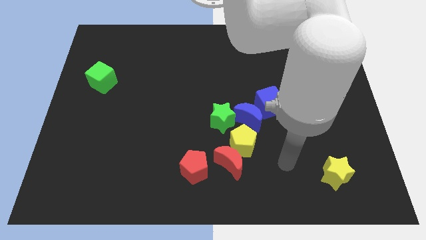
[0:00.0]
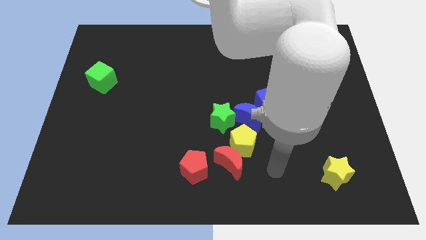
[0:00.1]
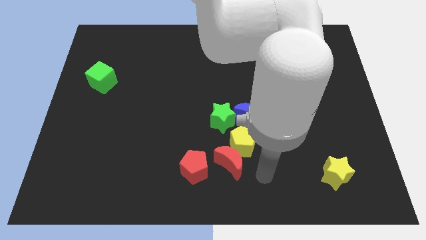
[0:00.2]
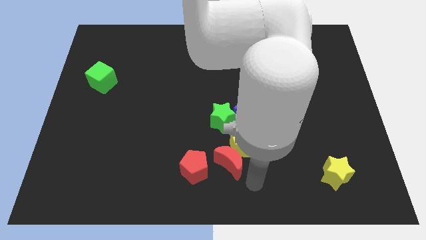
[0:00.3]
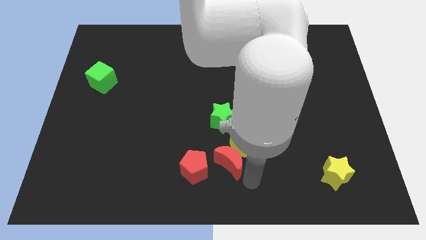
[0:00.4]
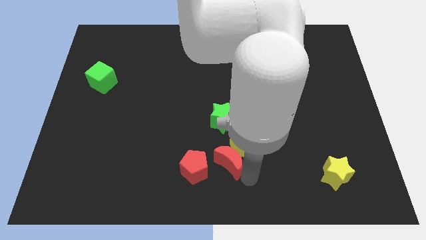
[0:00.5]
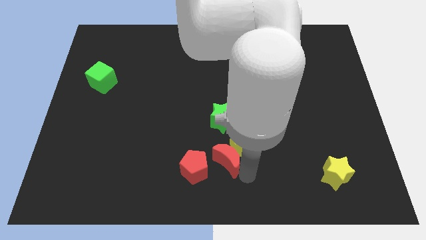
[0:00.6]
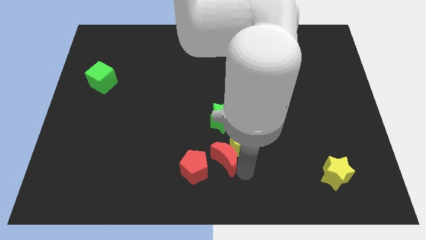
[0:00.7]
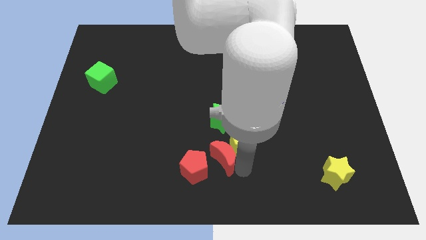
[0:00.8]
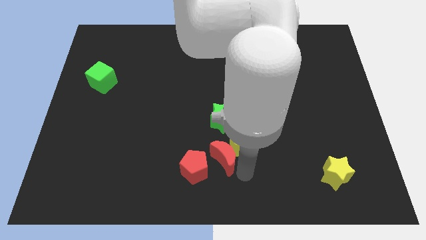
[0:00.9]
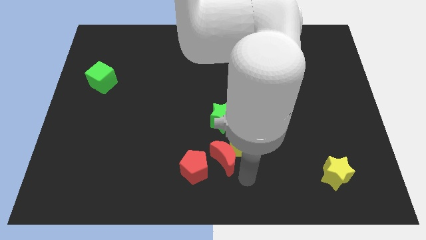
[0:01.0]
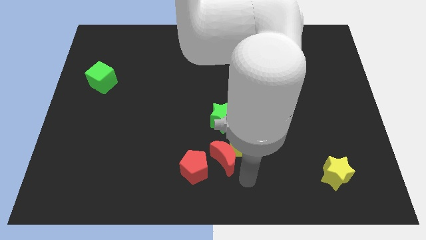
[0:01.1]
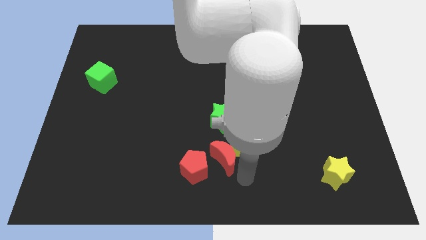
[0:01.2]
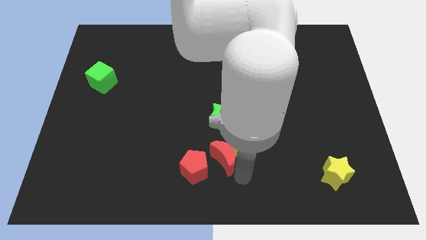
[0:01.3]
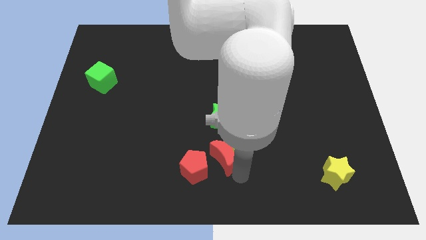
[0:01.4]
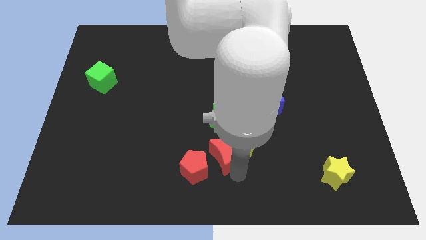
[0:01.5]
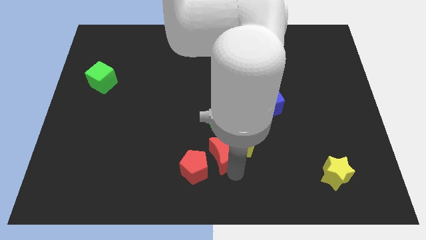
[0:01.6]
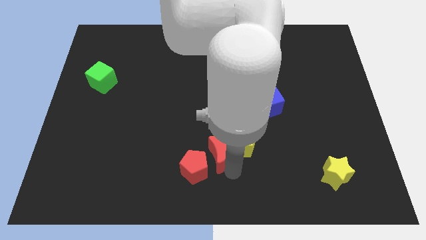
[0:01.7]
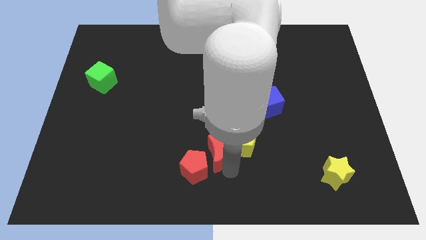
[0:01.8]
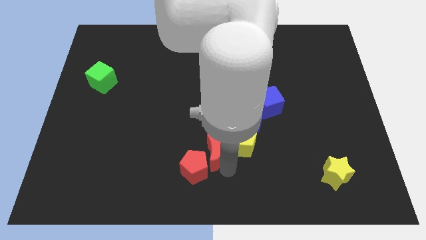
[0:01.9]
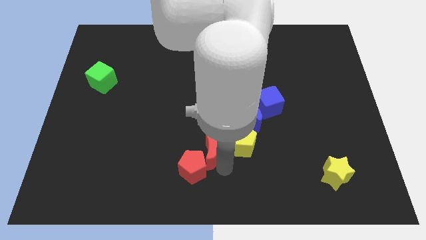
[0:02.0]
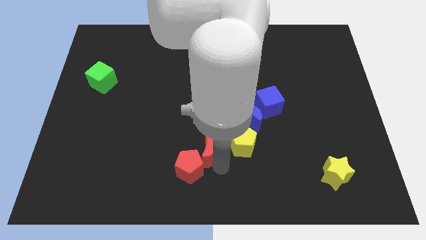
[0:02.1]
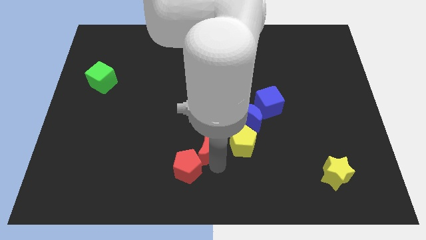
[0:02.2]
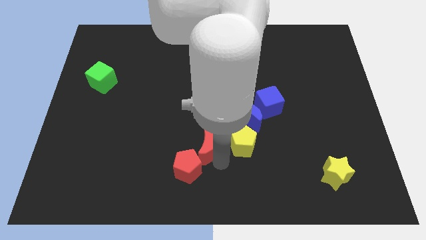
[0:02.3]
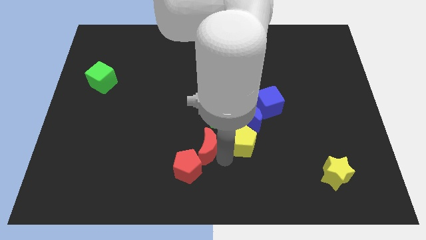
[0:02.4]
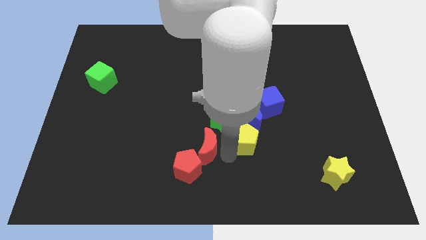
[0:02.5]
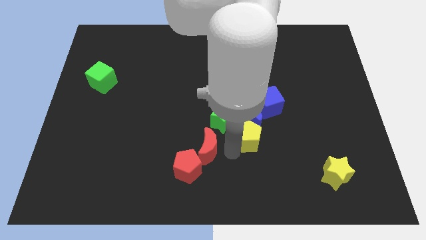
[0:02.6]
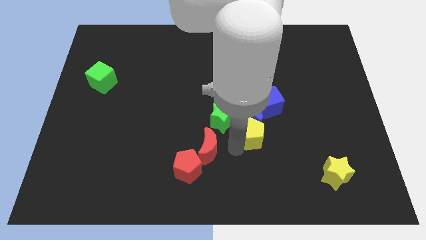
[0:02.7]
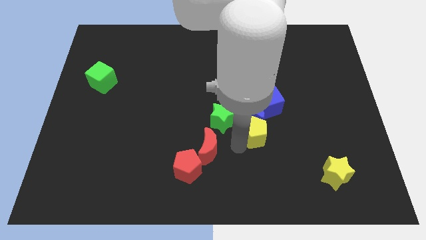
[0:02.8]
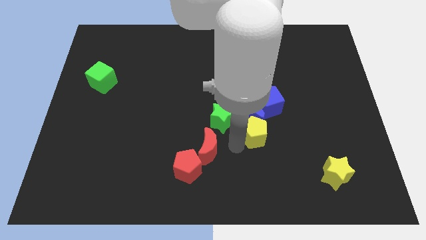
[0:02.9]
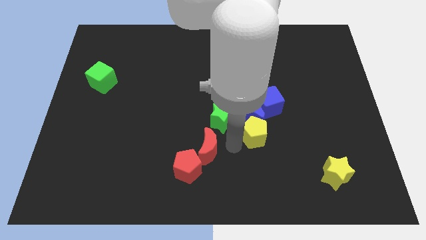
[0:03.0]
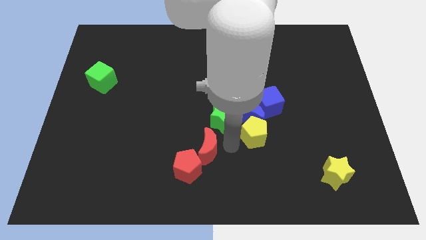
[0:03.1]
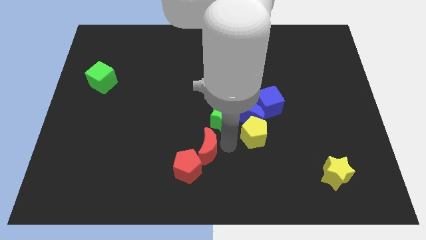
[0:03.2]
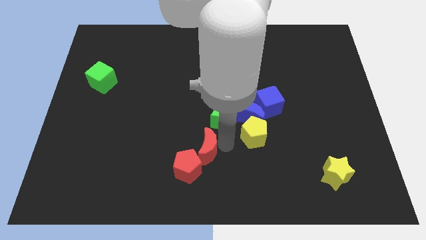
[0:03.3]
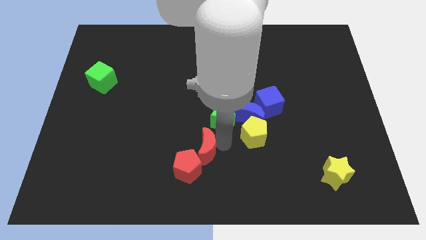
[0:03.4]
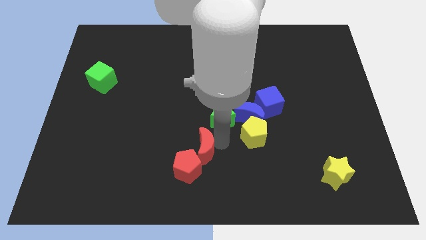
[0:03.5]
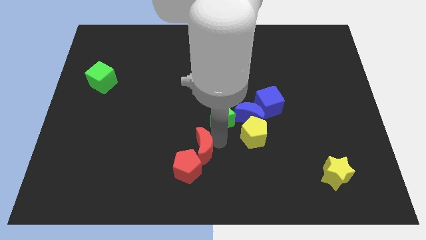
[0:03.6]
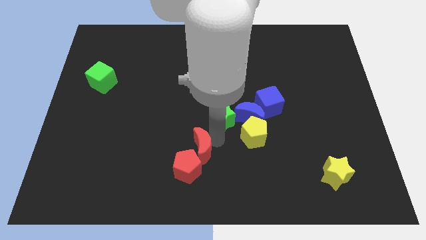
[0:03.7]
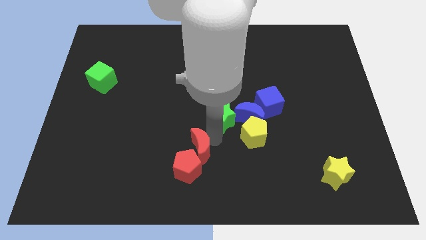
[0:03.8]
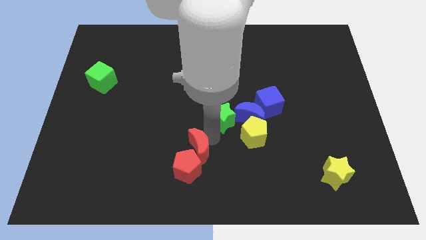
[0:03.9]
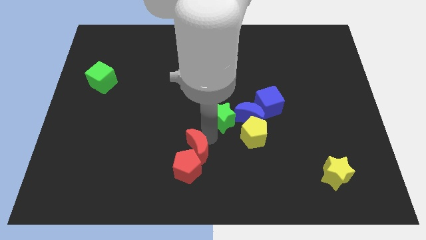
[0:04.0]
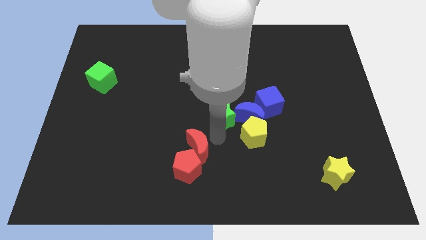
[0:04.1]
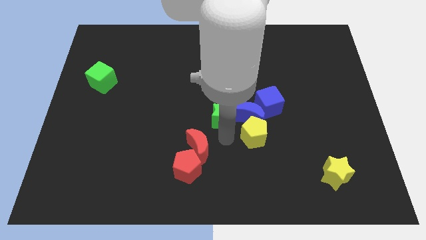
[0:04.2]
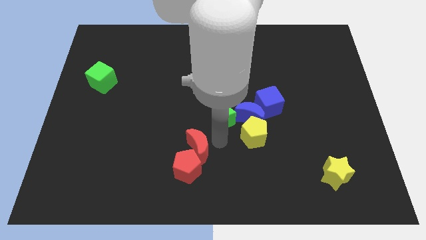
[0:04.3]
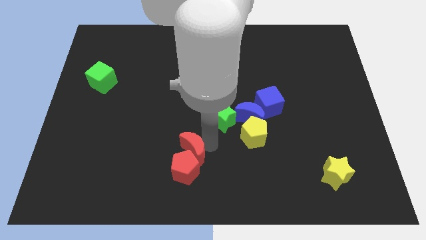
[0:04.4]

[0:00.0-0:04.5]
slightly push the red moon left

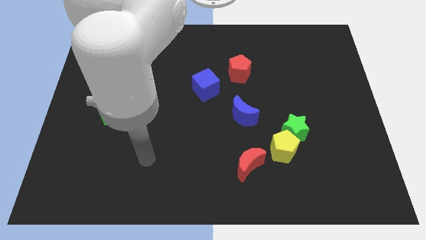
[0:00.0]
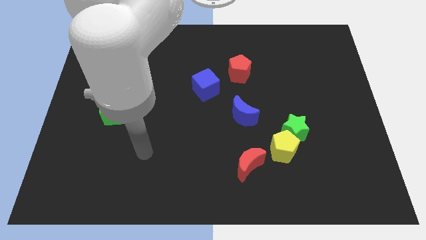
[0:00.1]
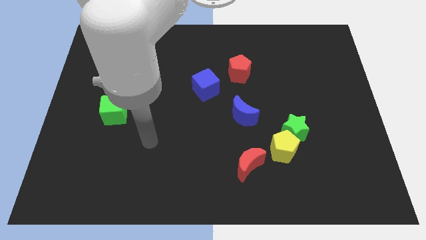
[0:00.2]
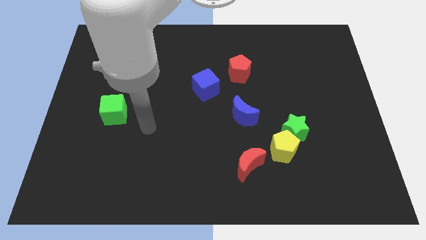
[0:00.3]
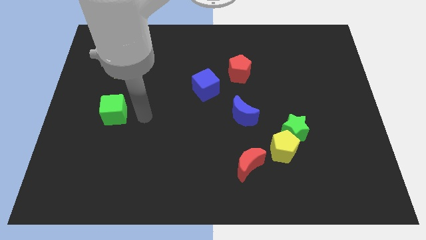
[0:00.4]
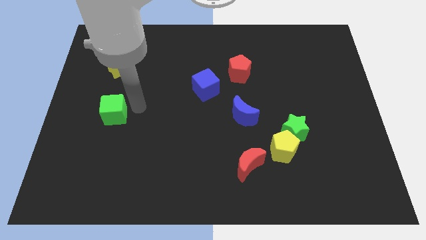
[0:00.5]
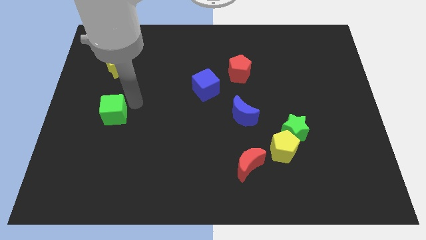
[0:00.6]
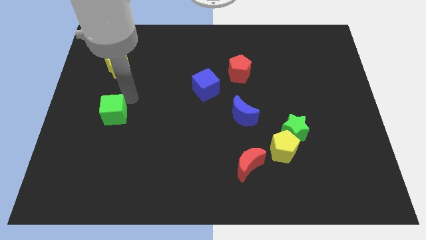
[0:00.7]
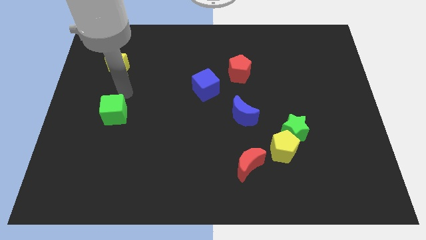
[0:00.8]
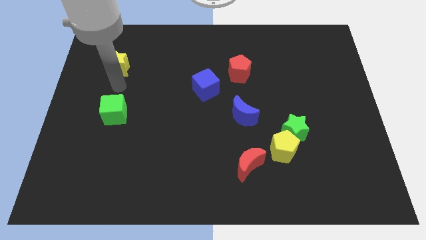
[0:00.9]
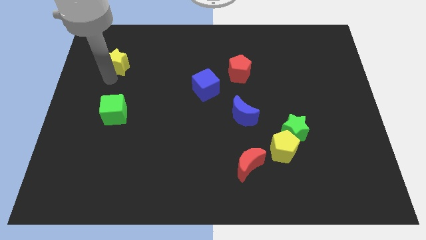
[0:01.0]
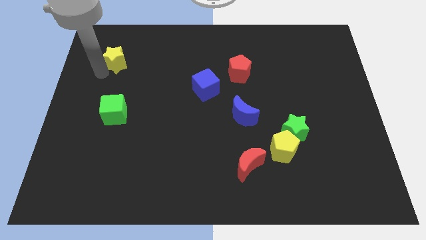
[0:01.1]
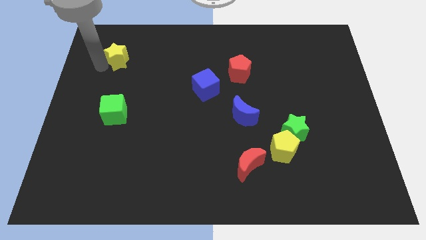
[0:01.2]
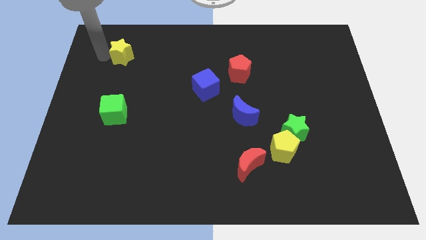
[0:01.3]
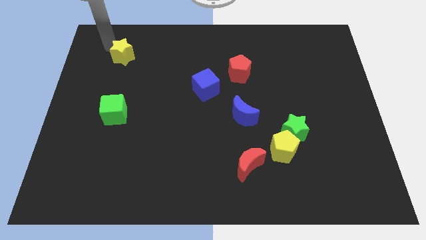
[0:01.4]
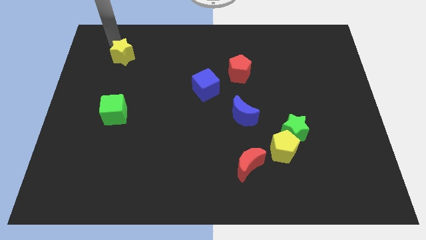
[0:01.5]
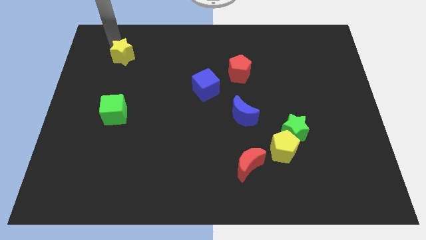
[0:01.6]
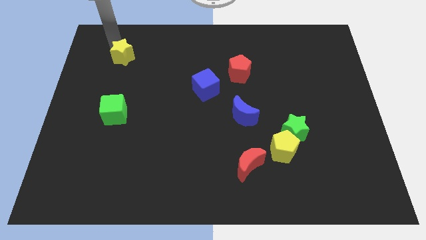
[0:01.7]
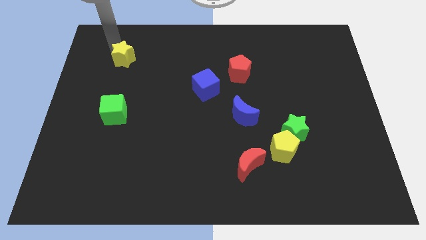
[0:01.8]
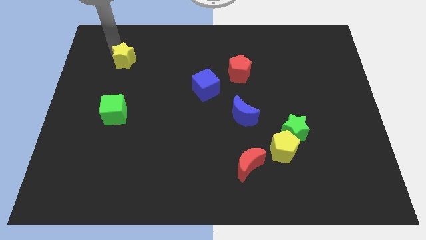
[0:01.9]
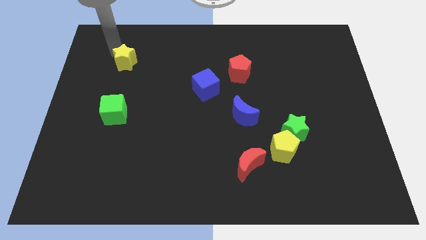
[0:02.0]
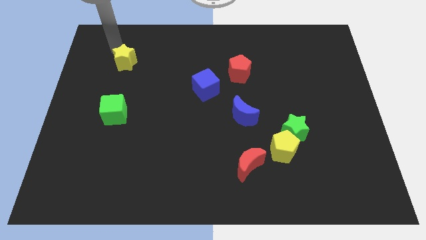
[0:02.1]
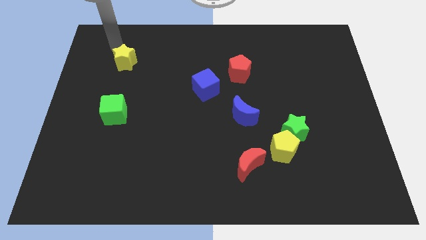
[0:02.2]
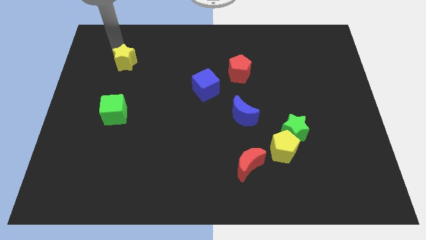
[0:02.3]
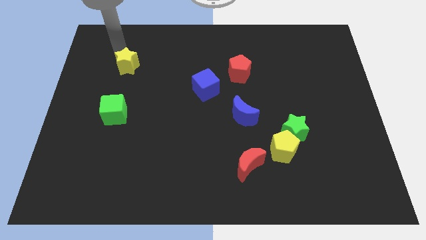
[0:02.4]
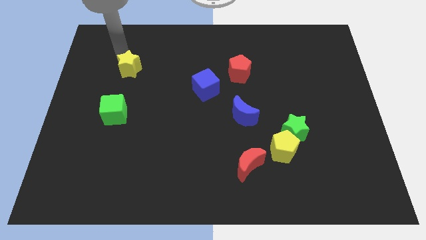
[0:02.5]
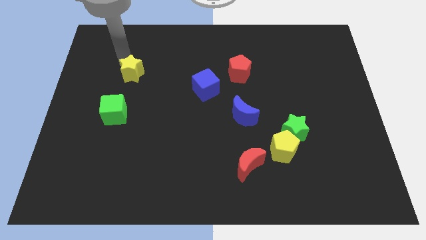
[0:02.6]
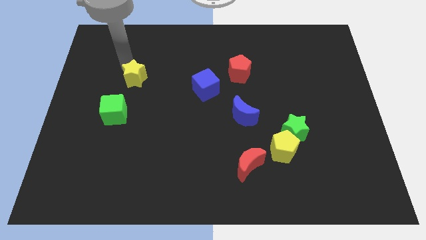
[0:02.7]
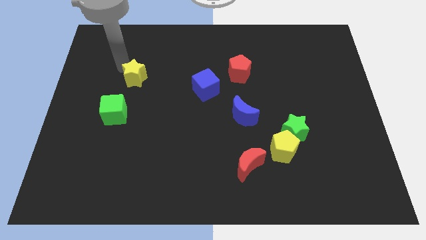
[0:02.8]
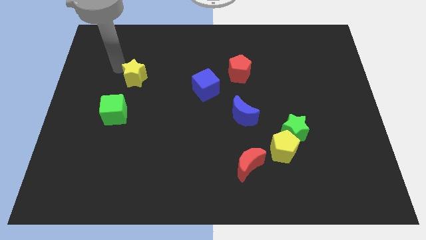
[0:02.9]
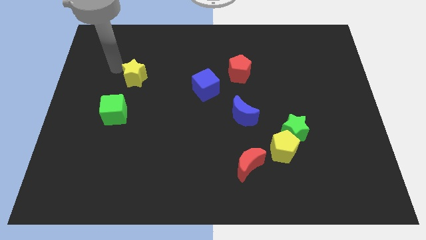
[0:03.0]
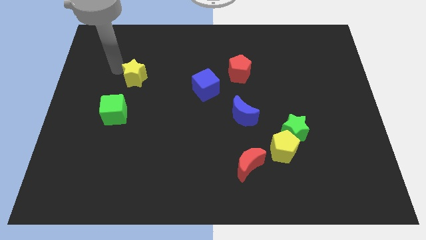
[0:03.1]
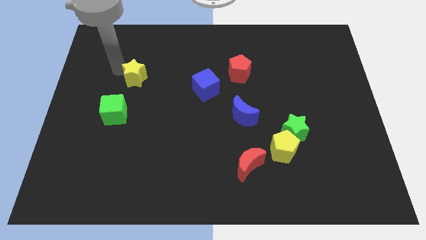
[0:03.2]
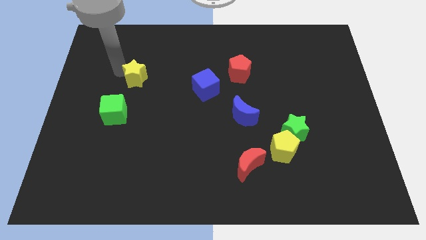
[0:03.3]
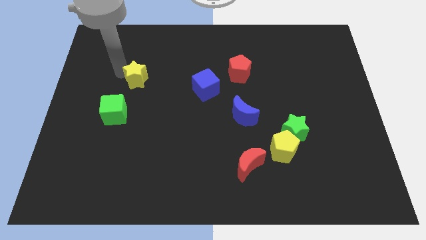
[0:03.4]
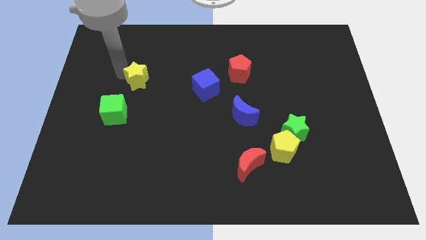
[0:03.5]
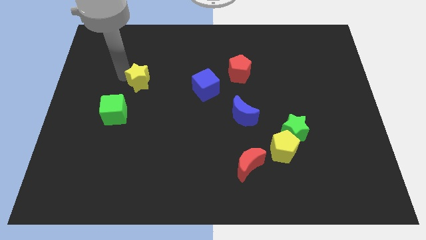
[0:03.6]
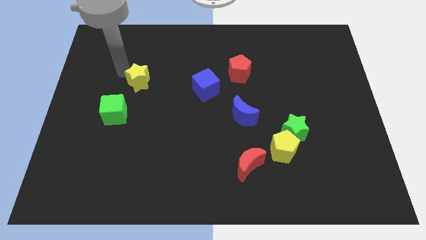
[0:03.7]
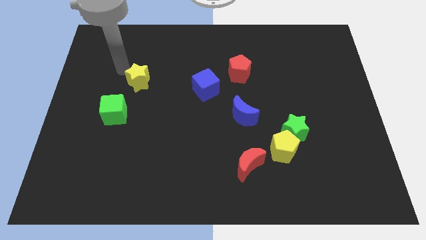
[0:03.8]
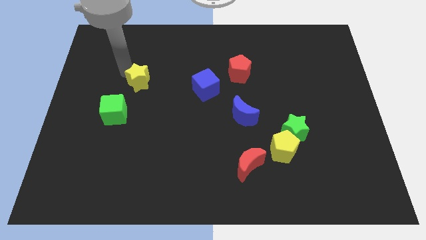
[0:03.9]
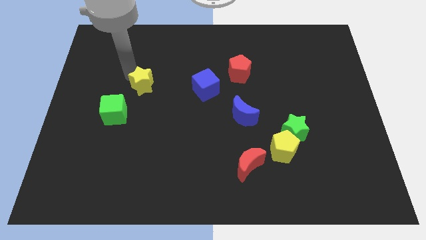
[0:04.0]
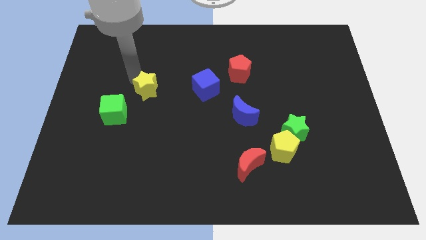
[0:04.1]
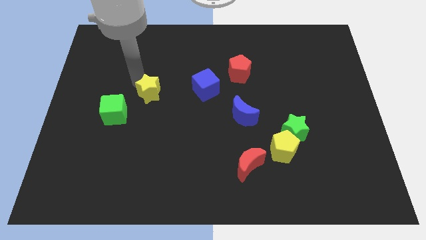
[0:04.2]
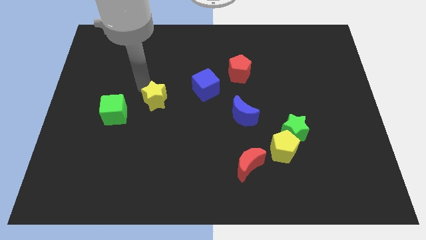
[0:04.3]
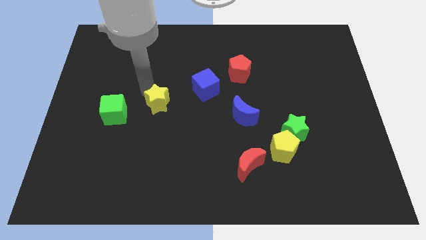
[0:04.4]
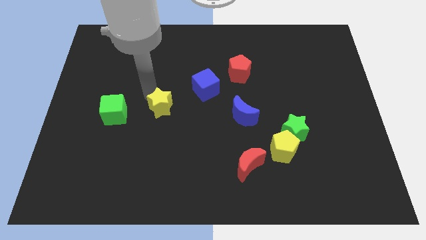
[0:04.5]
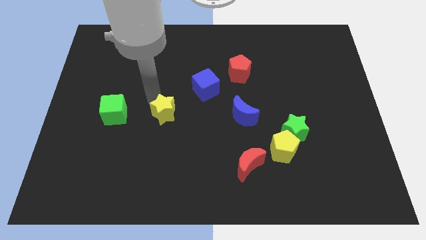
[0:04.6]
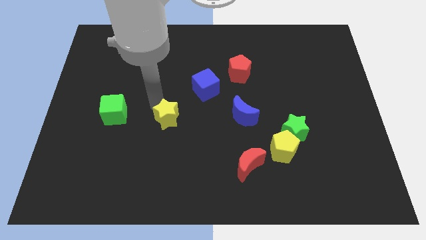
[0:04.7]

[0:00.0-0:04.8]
slide the yellow star downwards and right diagonally
